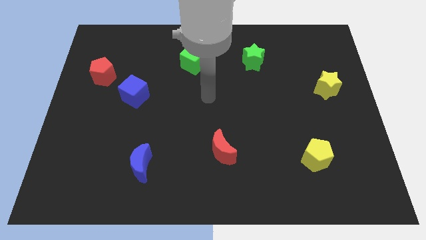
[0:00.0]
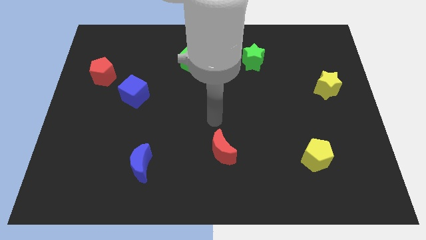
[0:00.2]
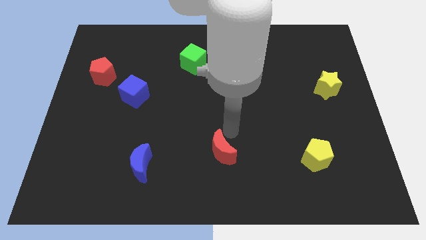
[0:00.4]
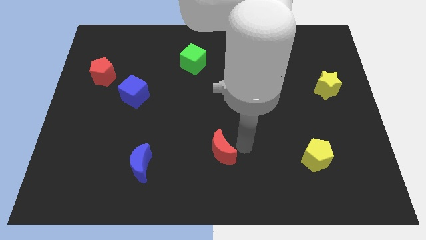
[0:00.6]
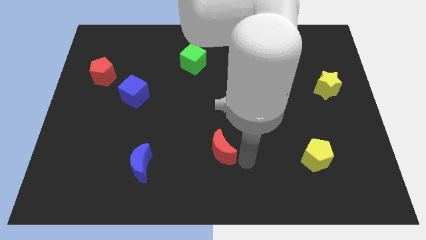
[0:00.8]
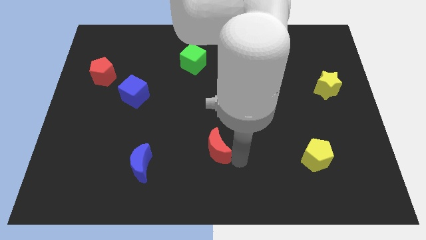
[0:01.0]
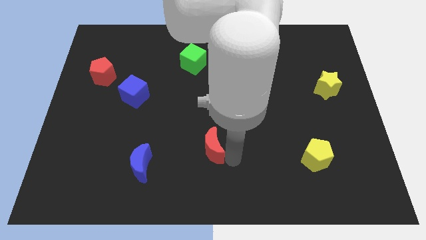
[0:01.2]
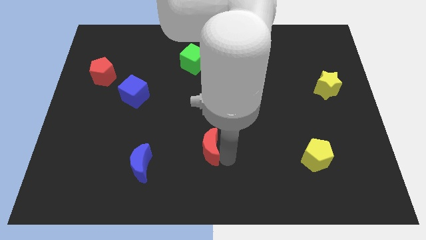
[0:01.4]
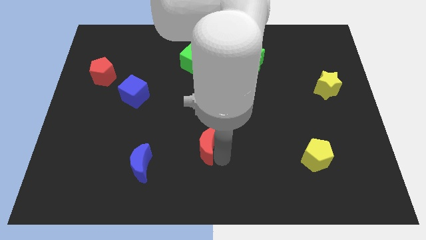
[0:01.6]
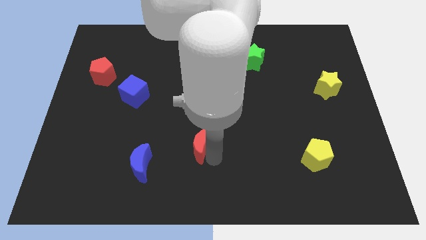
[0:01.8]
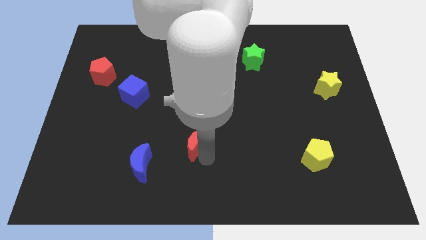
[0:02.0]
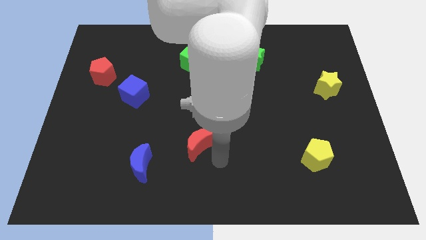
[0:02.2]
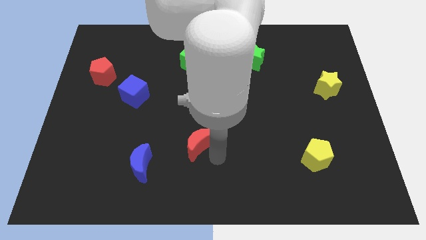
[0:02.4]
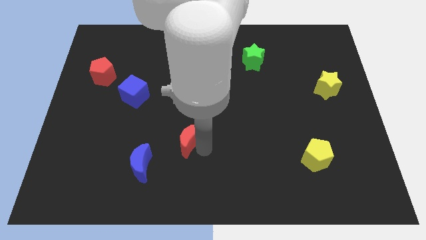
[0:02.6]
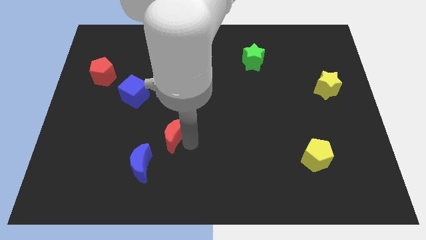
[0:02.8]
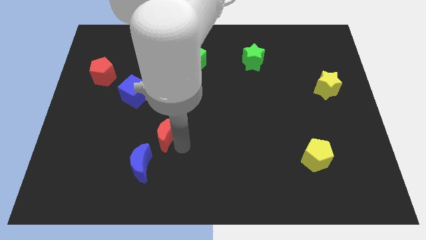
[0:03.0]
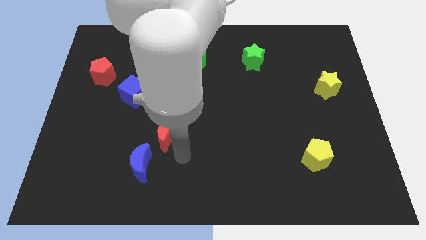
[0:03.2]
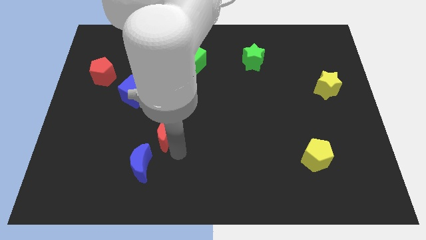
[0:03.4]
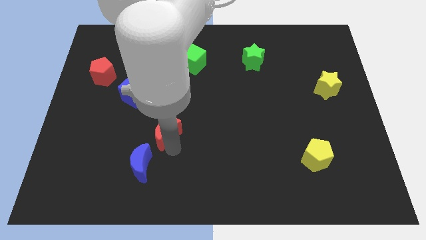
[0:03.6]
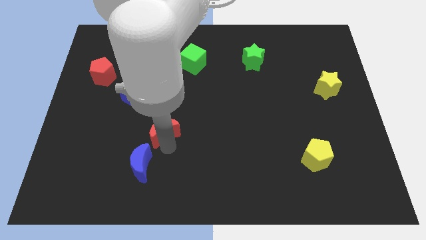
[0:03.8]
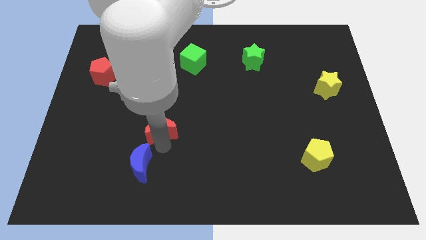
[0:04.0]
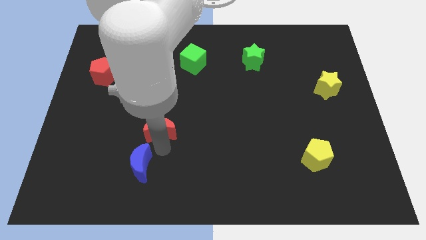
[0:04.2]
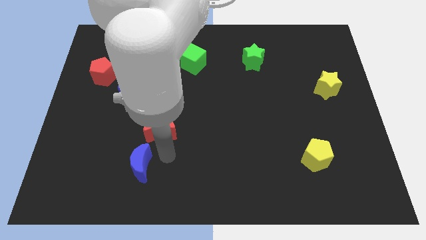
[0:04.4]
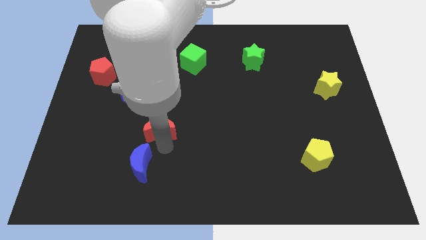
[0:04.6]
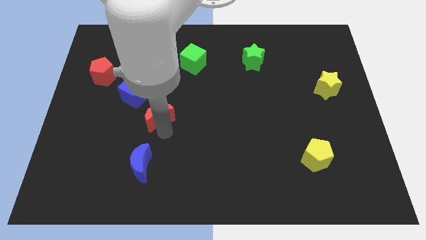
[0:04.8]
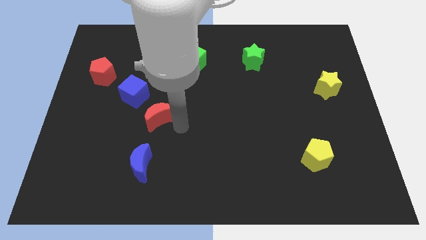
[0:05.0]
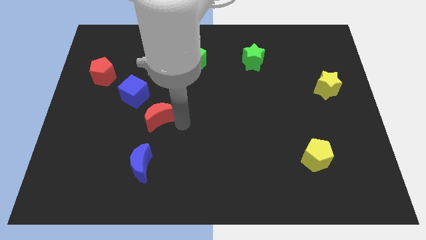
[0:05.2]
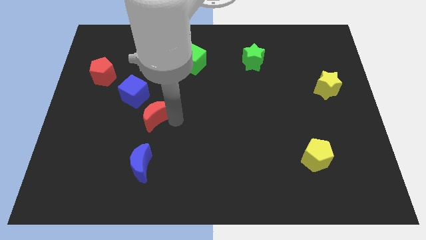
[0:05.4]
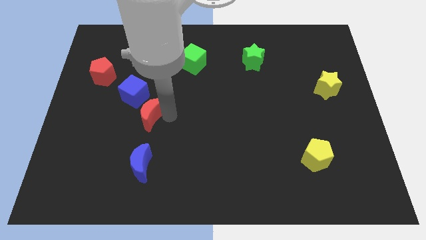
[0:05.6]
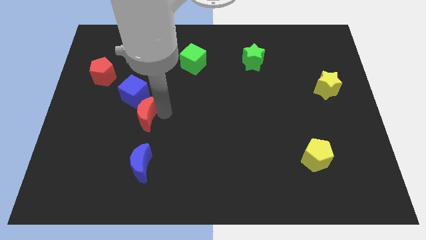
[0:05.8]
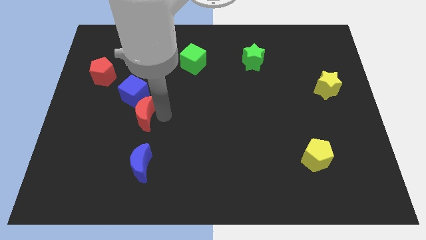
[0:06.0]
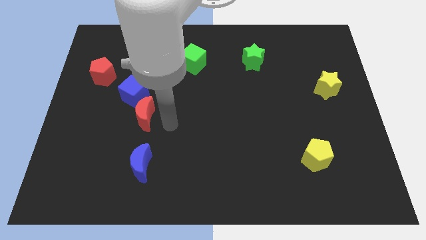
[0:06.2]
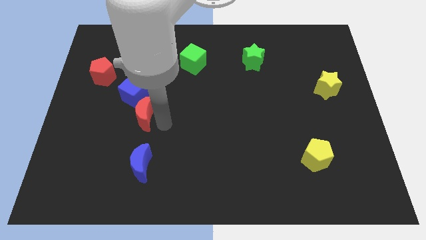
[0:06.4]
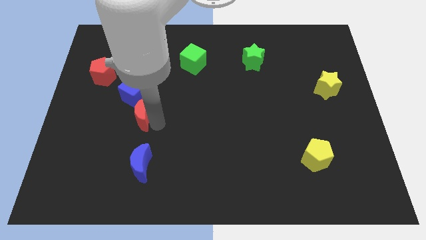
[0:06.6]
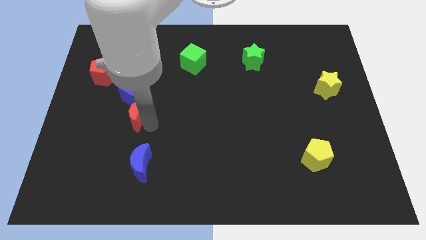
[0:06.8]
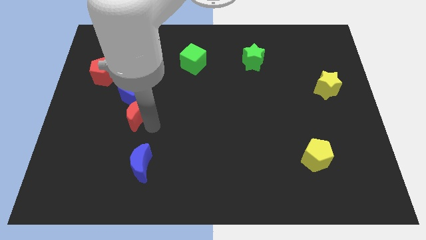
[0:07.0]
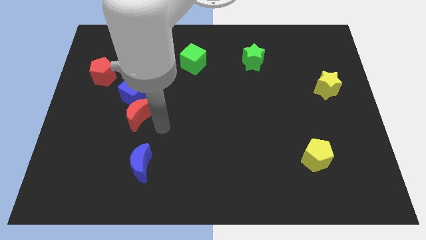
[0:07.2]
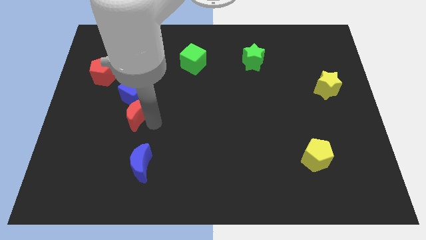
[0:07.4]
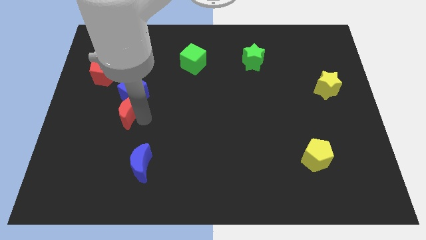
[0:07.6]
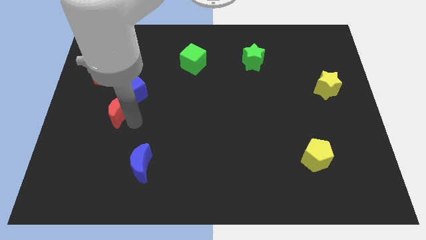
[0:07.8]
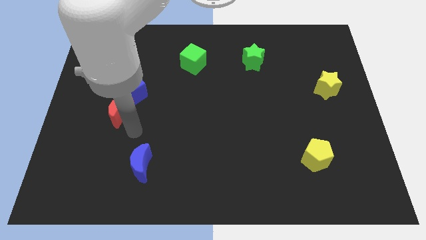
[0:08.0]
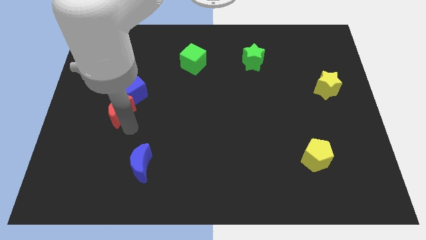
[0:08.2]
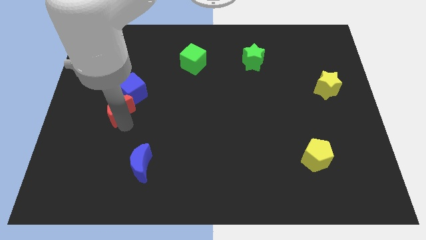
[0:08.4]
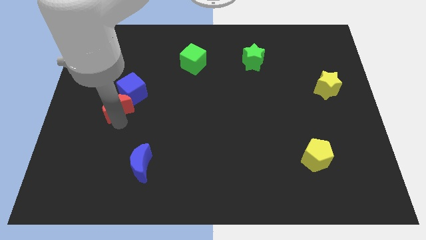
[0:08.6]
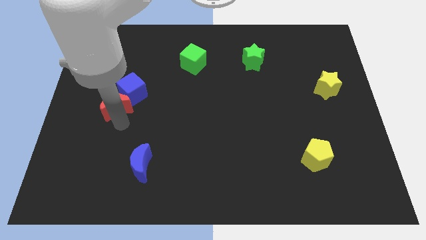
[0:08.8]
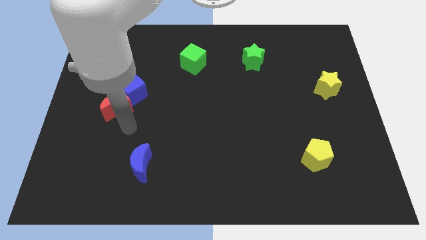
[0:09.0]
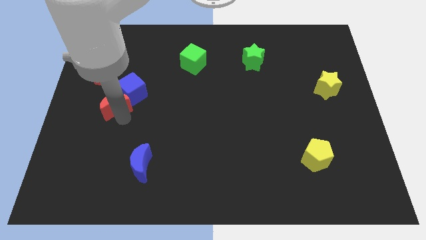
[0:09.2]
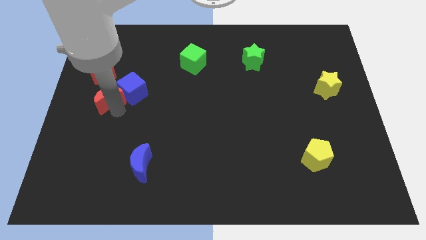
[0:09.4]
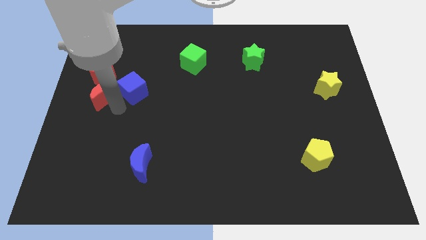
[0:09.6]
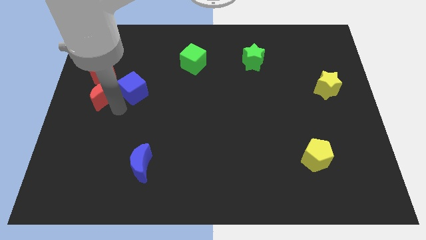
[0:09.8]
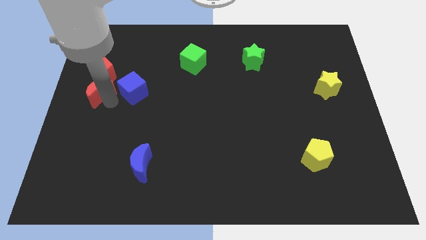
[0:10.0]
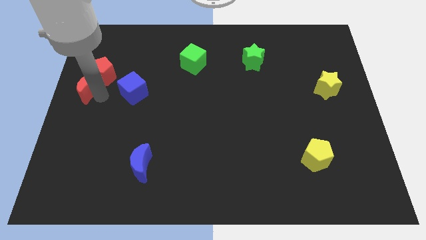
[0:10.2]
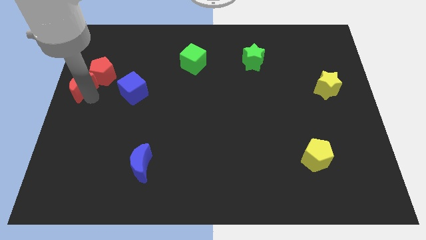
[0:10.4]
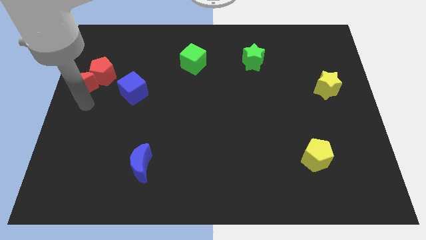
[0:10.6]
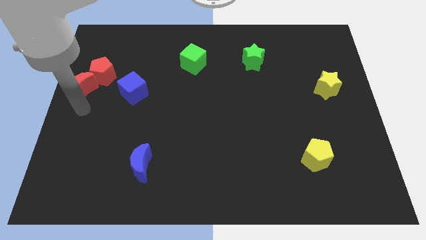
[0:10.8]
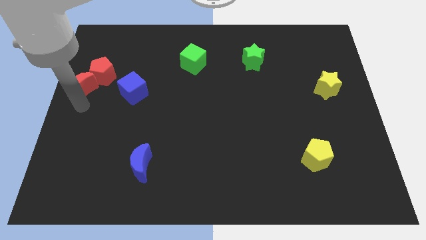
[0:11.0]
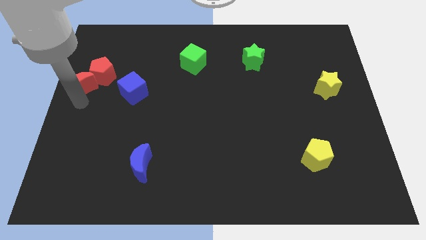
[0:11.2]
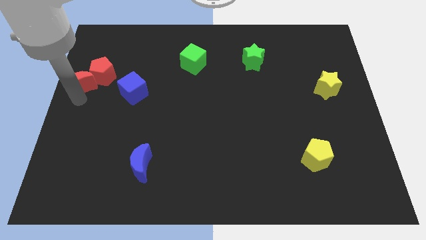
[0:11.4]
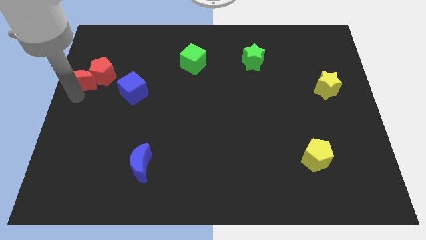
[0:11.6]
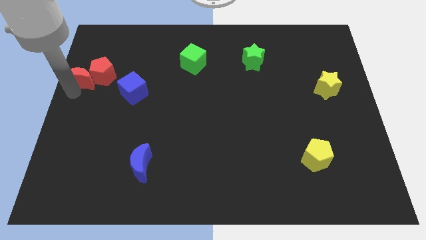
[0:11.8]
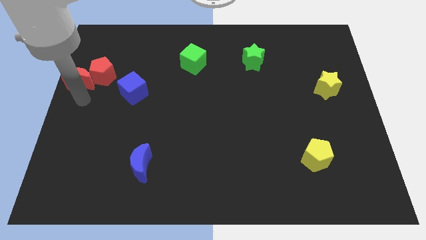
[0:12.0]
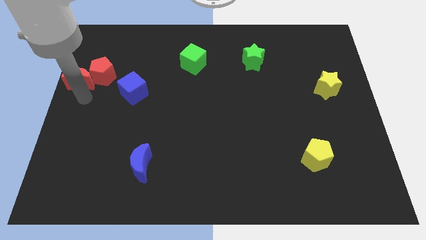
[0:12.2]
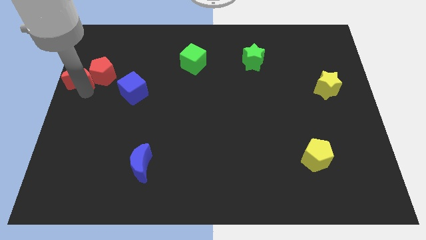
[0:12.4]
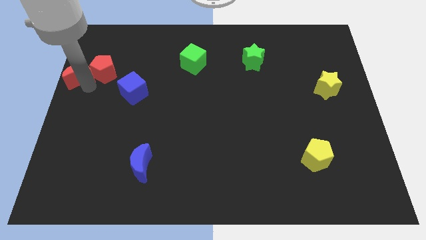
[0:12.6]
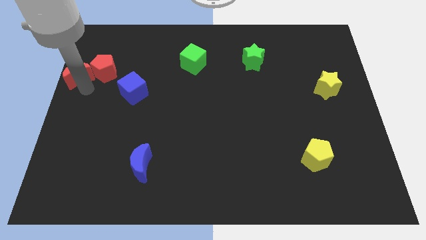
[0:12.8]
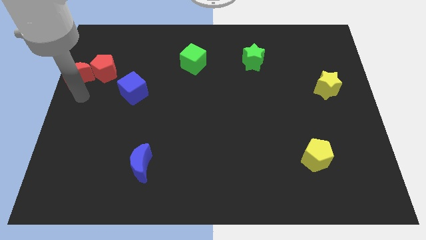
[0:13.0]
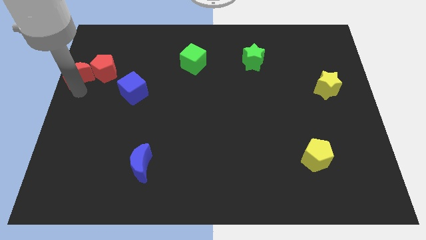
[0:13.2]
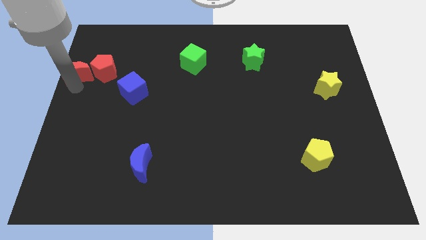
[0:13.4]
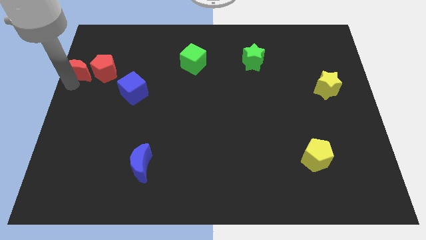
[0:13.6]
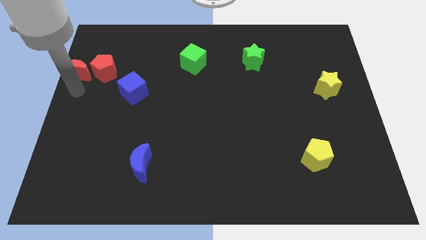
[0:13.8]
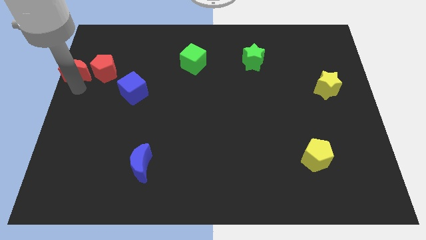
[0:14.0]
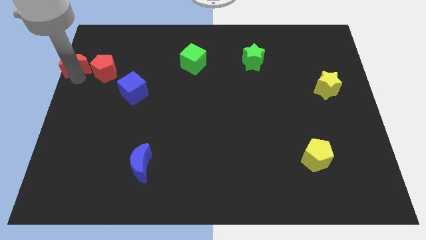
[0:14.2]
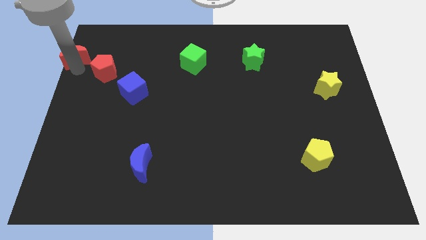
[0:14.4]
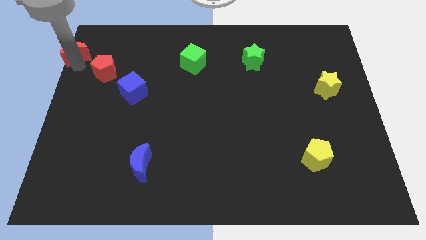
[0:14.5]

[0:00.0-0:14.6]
push the red moon to the top left corner
